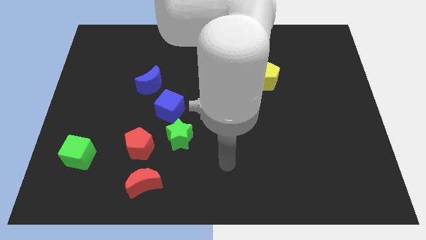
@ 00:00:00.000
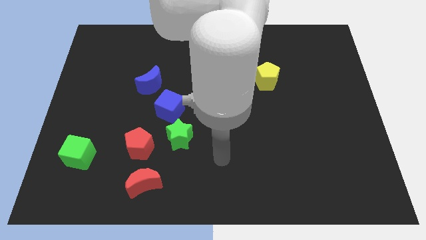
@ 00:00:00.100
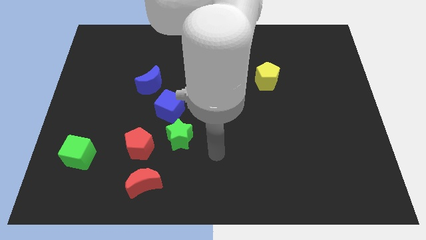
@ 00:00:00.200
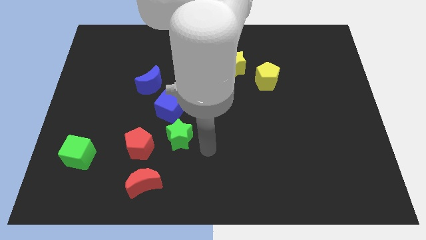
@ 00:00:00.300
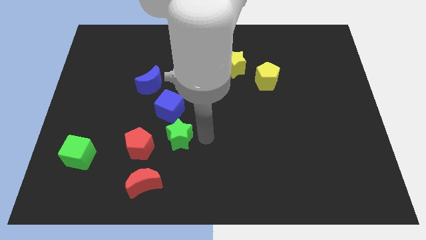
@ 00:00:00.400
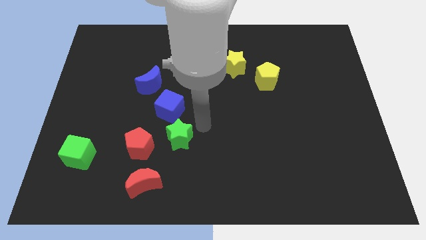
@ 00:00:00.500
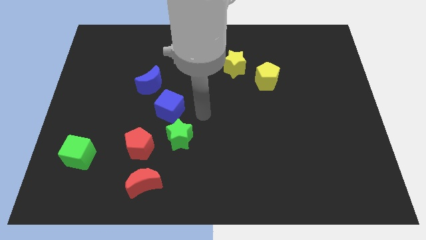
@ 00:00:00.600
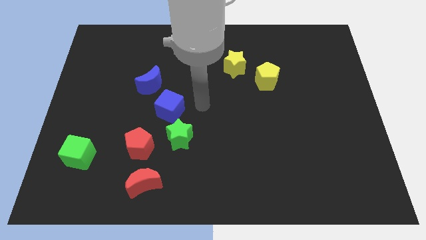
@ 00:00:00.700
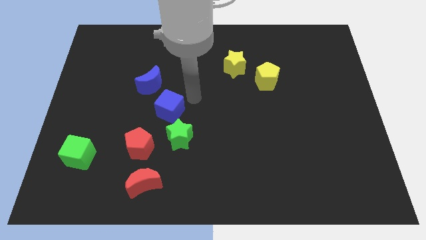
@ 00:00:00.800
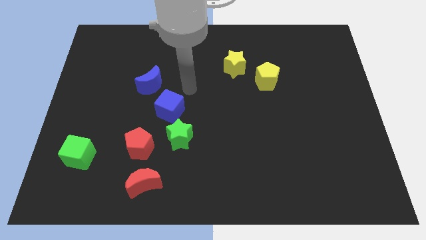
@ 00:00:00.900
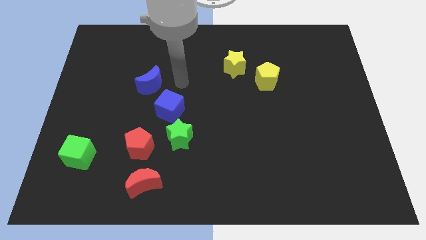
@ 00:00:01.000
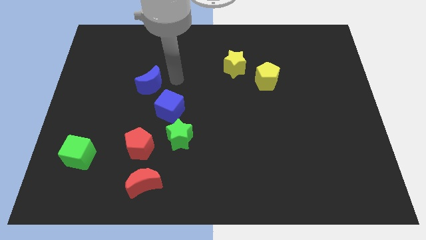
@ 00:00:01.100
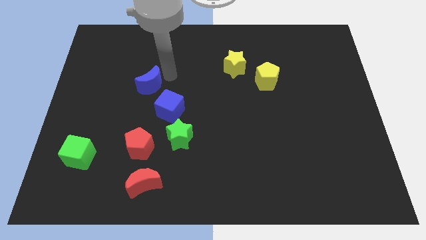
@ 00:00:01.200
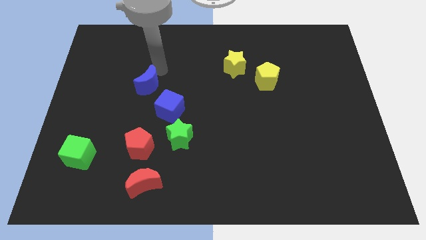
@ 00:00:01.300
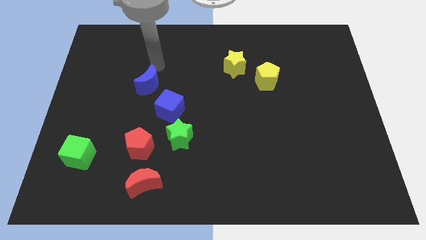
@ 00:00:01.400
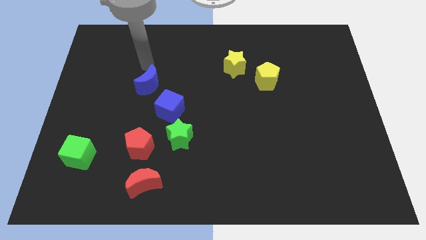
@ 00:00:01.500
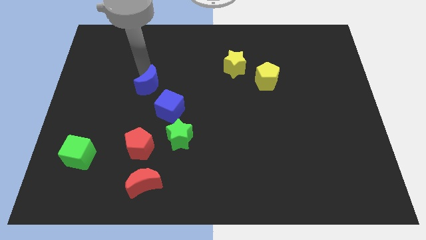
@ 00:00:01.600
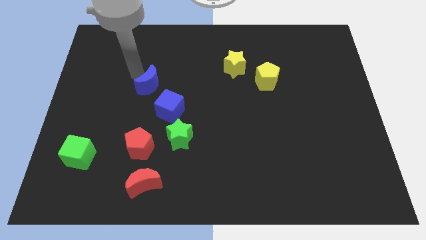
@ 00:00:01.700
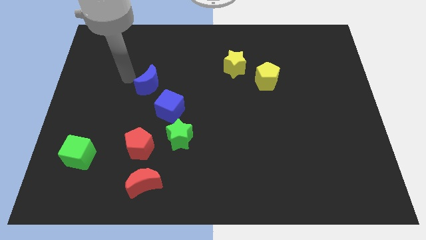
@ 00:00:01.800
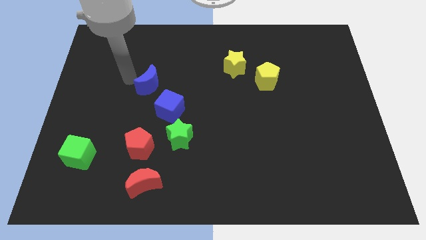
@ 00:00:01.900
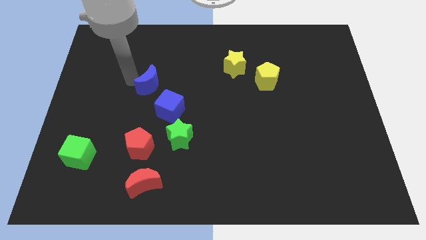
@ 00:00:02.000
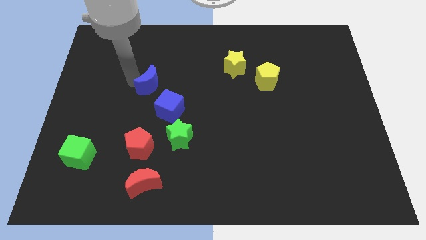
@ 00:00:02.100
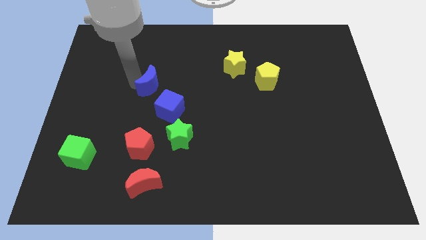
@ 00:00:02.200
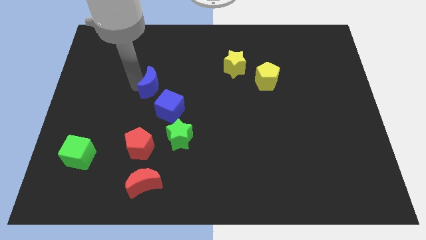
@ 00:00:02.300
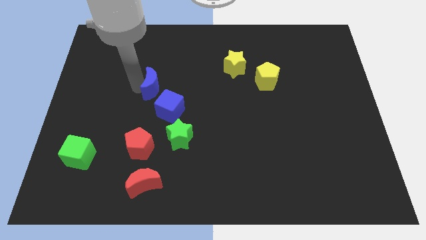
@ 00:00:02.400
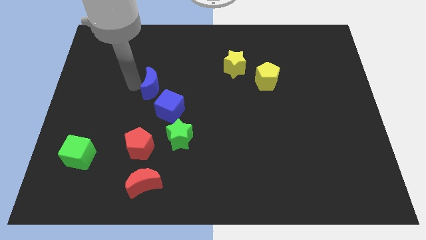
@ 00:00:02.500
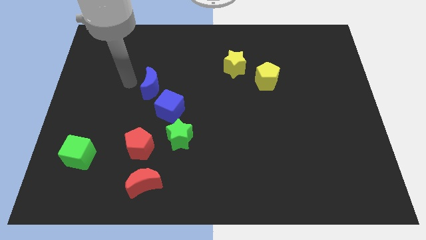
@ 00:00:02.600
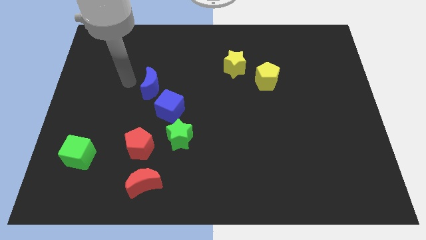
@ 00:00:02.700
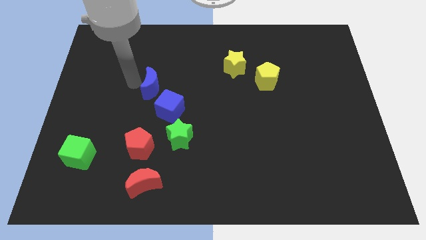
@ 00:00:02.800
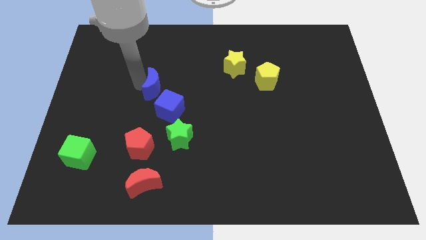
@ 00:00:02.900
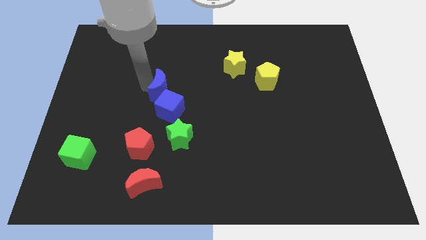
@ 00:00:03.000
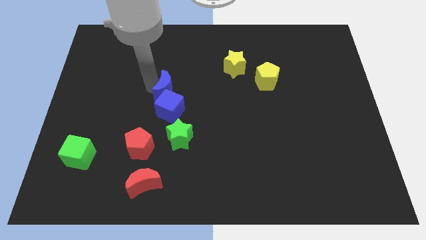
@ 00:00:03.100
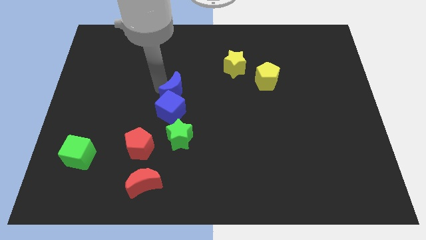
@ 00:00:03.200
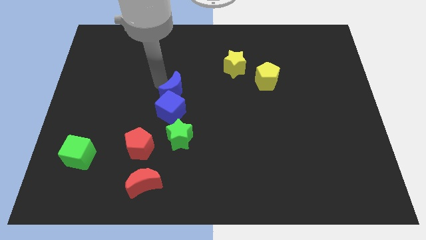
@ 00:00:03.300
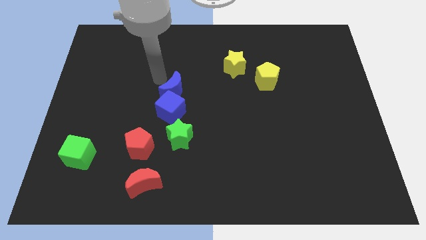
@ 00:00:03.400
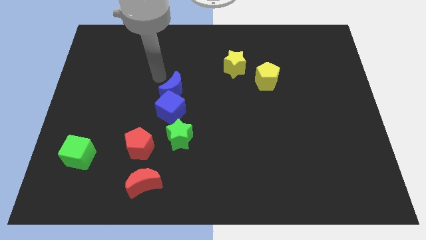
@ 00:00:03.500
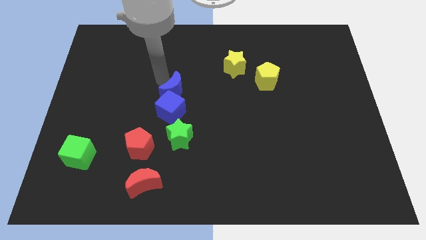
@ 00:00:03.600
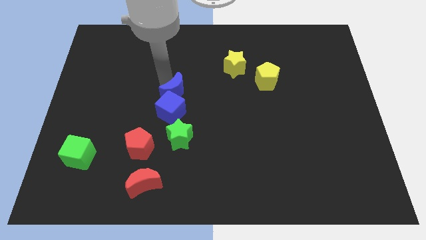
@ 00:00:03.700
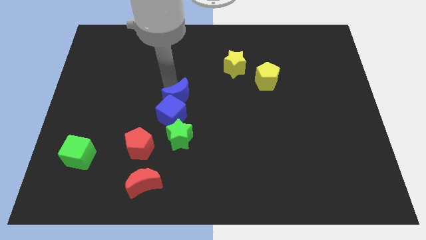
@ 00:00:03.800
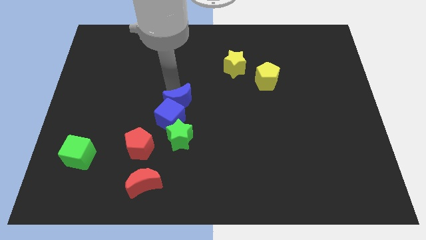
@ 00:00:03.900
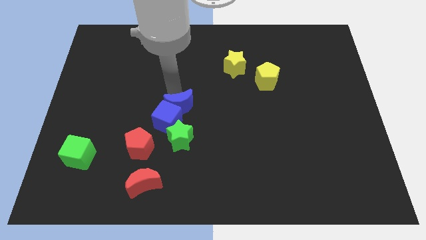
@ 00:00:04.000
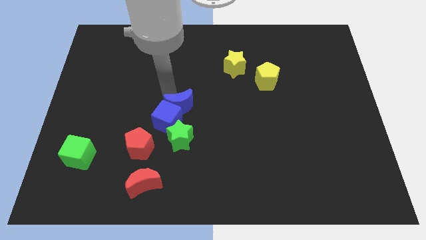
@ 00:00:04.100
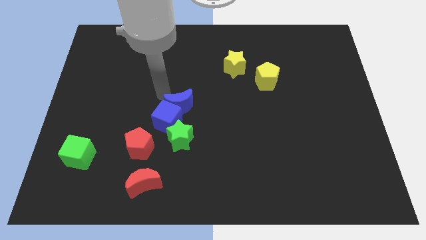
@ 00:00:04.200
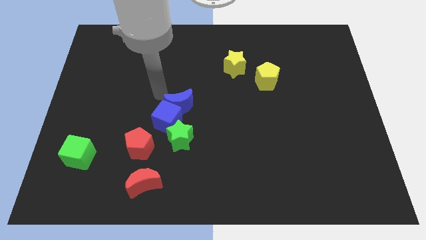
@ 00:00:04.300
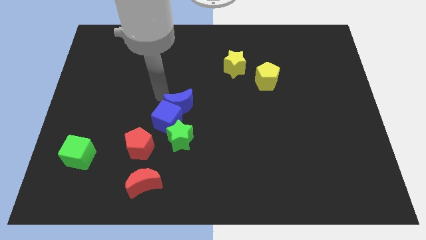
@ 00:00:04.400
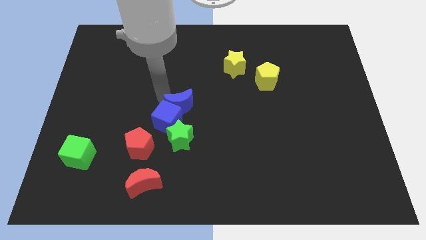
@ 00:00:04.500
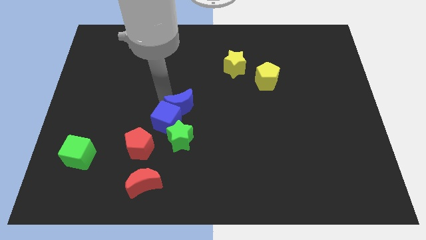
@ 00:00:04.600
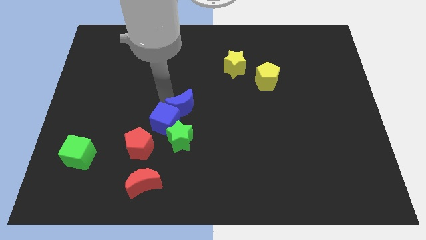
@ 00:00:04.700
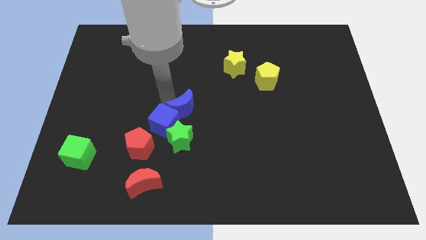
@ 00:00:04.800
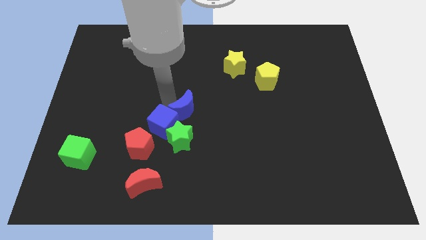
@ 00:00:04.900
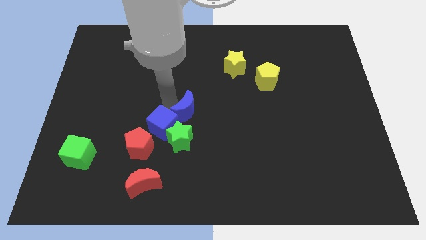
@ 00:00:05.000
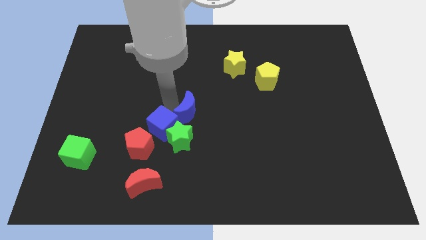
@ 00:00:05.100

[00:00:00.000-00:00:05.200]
move the blue moon to the top right of the green star

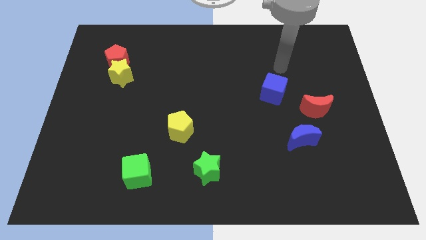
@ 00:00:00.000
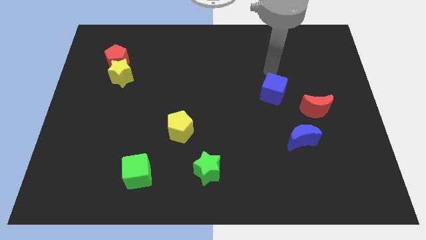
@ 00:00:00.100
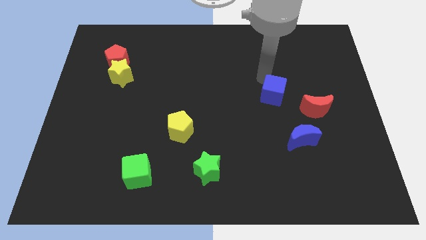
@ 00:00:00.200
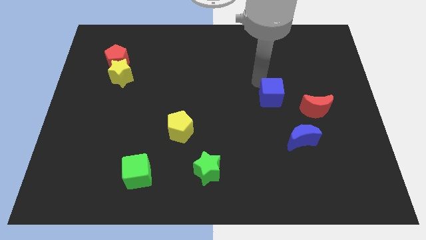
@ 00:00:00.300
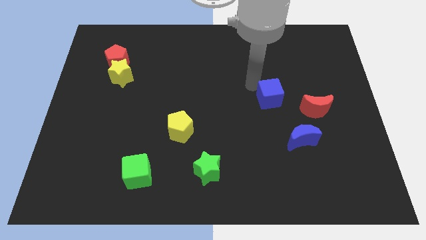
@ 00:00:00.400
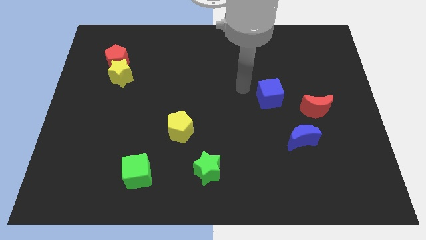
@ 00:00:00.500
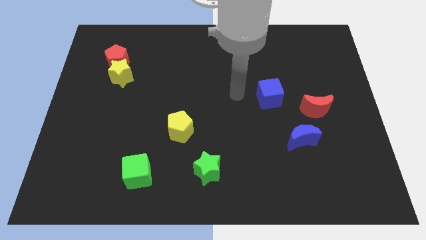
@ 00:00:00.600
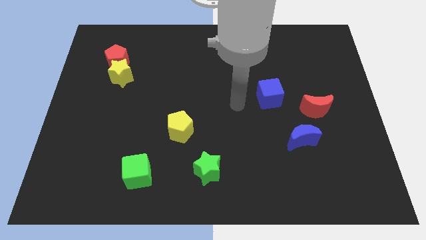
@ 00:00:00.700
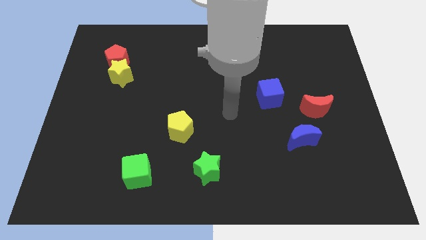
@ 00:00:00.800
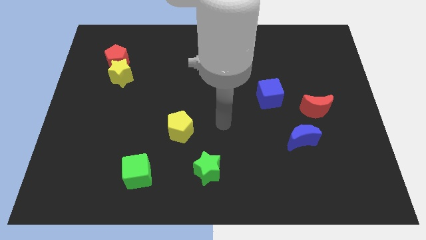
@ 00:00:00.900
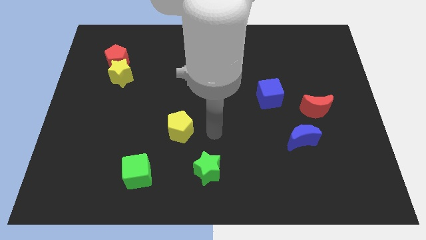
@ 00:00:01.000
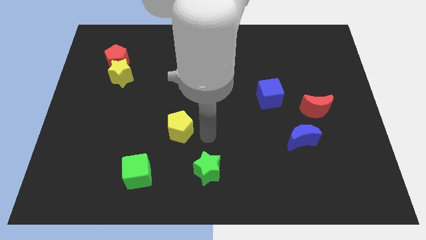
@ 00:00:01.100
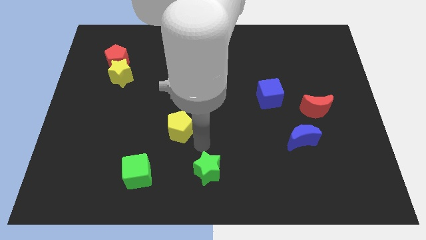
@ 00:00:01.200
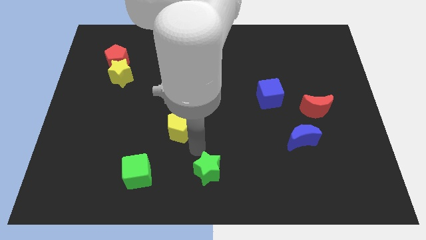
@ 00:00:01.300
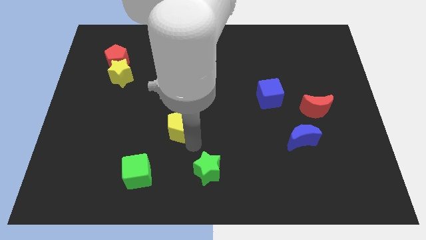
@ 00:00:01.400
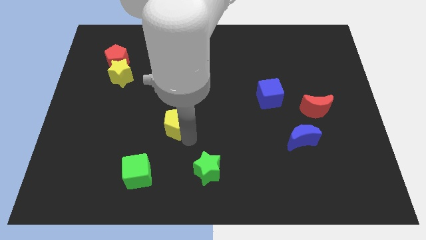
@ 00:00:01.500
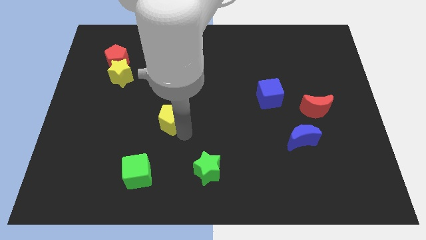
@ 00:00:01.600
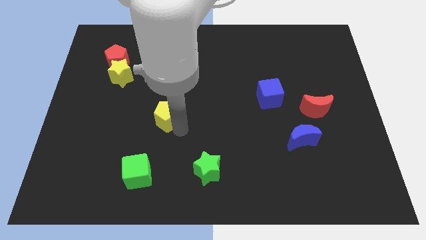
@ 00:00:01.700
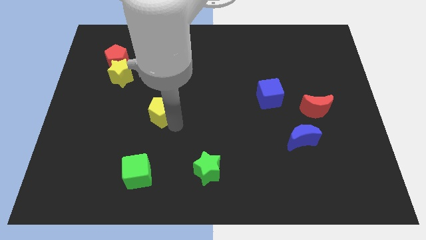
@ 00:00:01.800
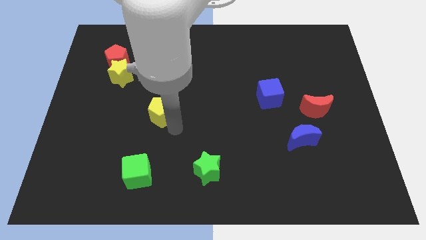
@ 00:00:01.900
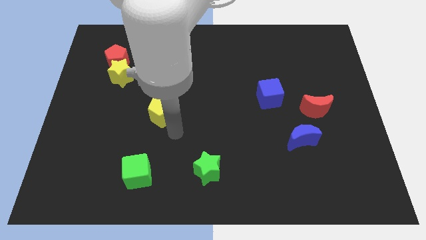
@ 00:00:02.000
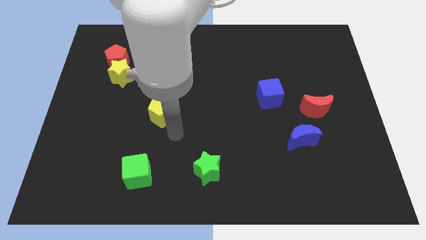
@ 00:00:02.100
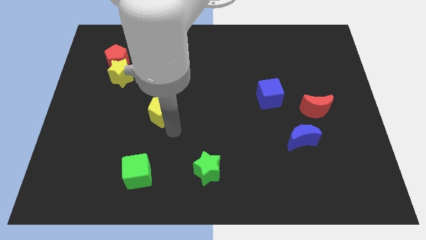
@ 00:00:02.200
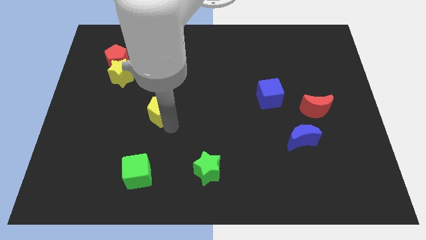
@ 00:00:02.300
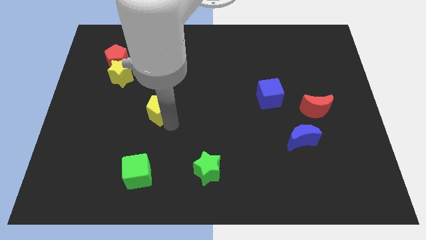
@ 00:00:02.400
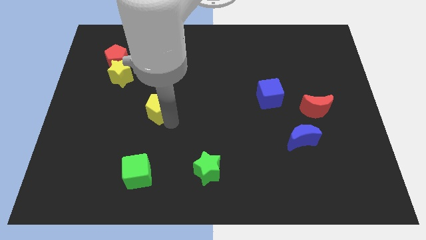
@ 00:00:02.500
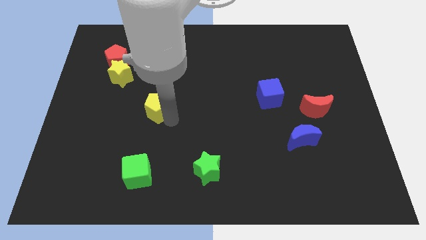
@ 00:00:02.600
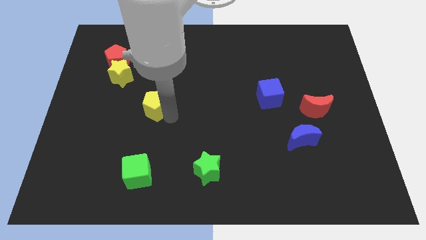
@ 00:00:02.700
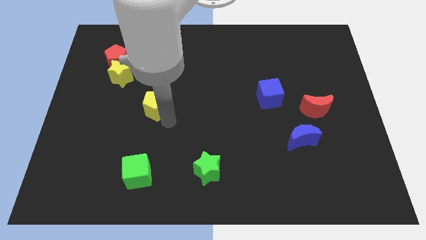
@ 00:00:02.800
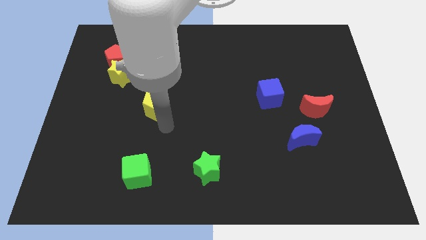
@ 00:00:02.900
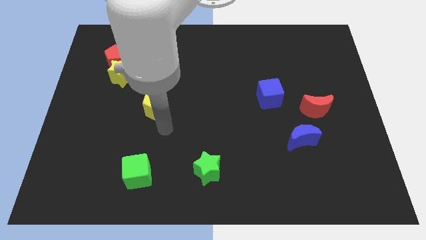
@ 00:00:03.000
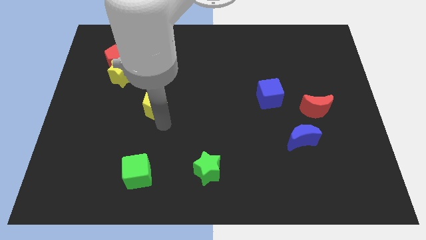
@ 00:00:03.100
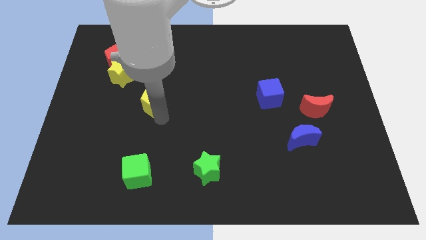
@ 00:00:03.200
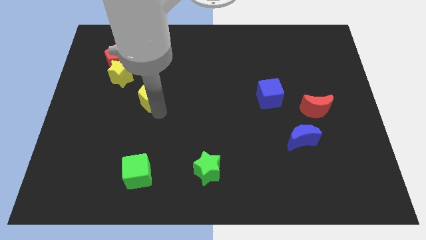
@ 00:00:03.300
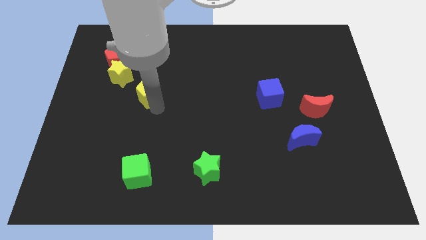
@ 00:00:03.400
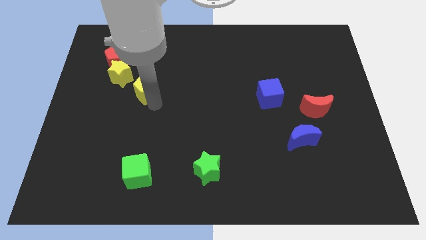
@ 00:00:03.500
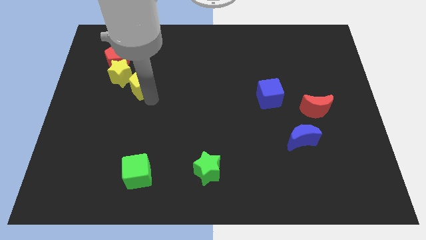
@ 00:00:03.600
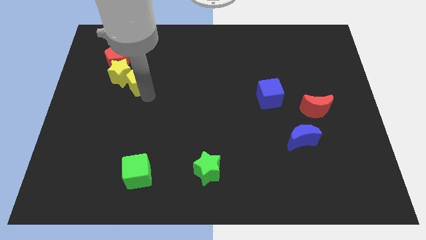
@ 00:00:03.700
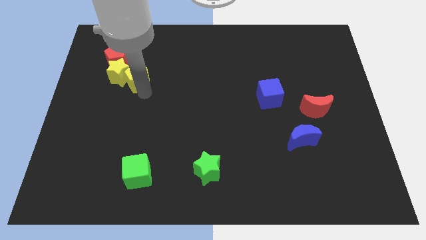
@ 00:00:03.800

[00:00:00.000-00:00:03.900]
push the yellow pentagon diagonally up and to the right of the yellow star
